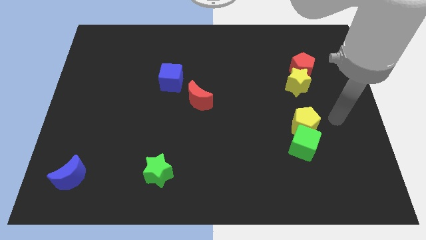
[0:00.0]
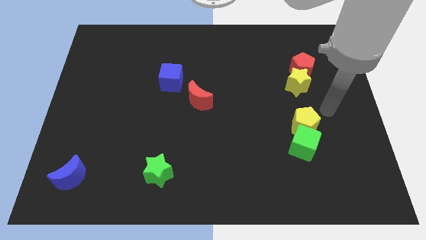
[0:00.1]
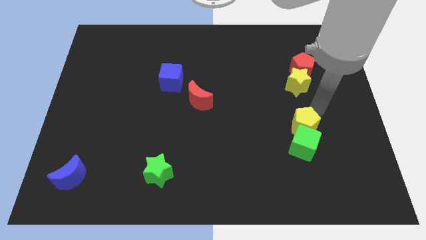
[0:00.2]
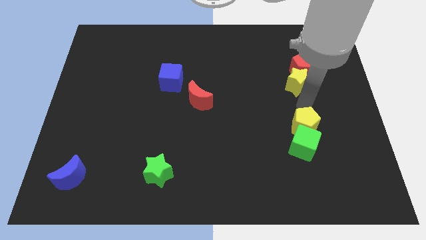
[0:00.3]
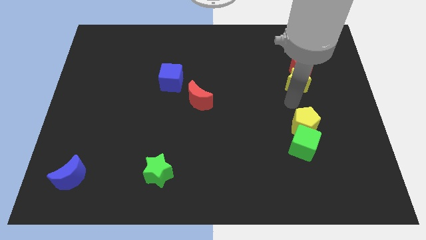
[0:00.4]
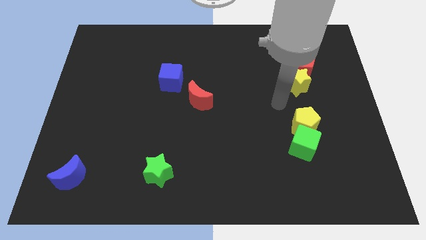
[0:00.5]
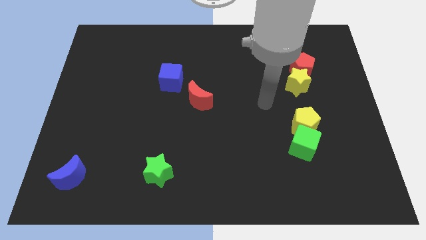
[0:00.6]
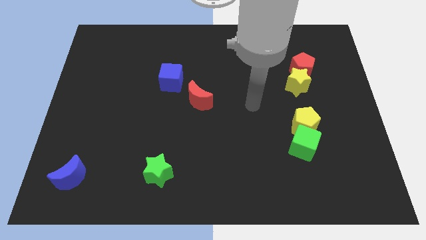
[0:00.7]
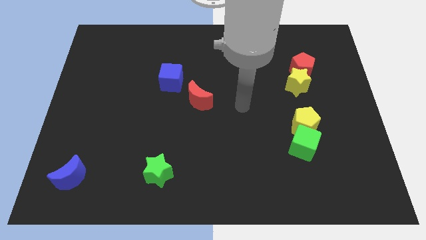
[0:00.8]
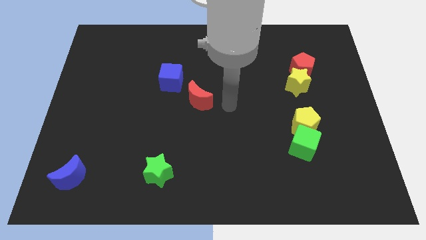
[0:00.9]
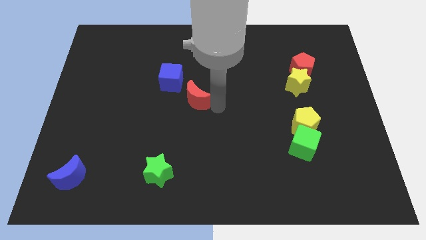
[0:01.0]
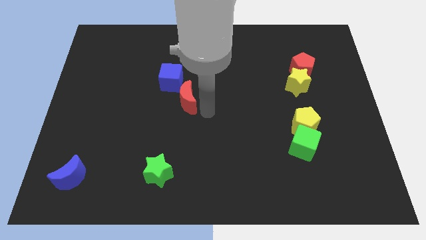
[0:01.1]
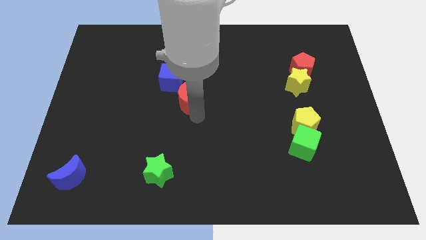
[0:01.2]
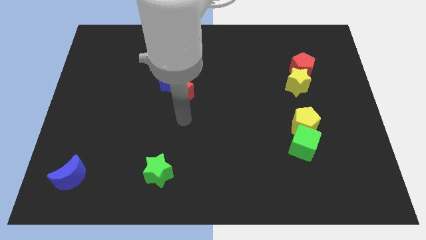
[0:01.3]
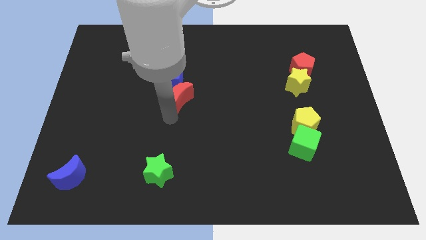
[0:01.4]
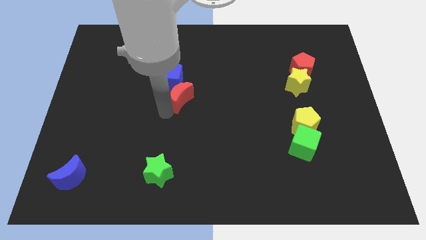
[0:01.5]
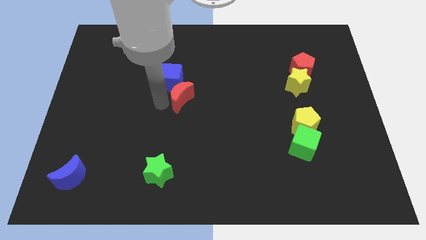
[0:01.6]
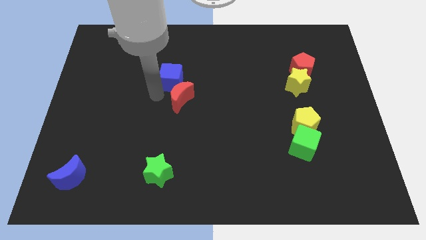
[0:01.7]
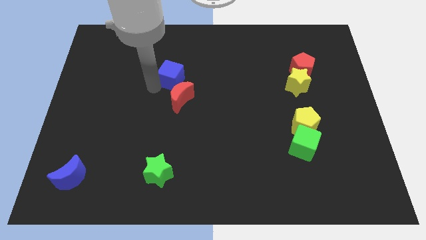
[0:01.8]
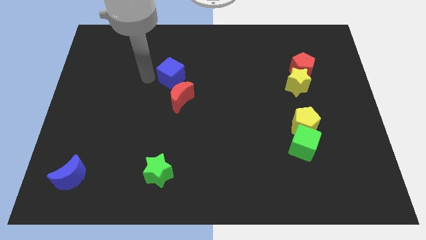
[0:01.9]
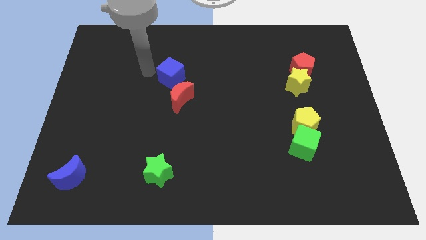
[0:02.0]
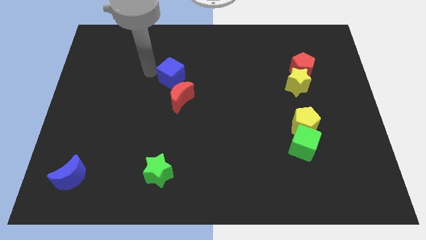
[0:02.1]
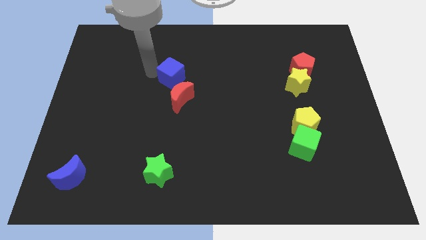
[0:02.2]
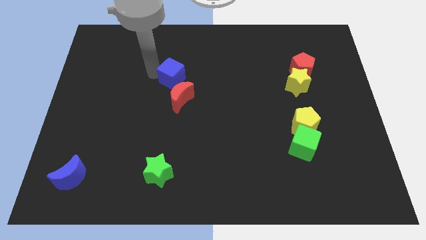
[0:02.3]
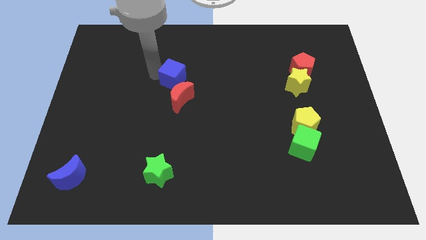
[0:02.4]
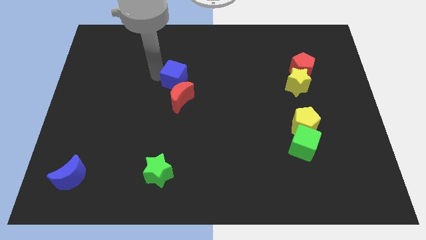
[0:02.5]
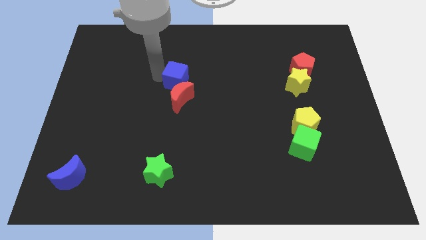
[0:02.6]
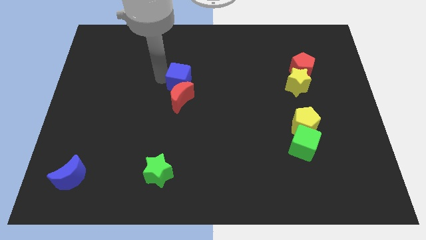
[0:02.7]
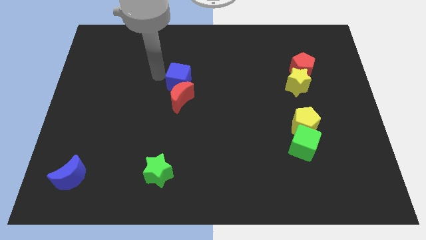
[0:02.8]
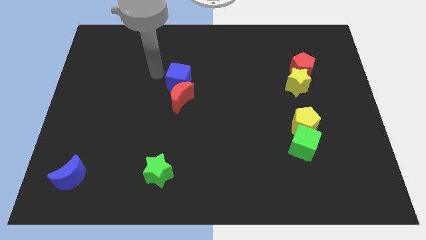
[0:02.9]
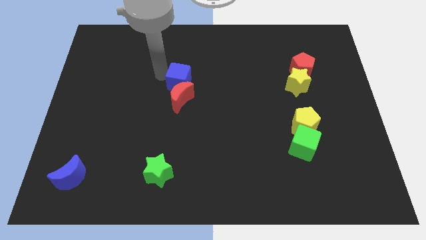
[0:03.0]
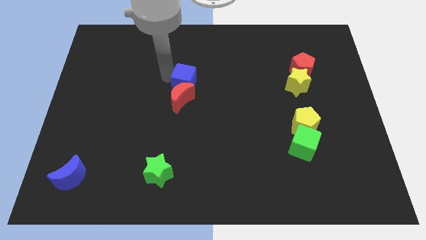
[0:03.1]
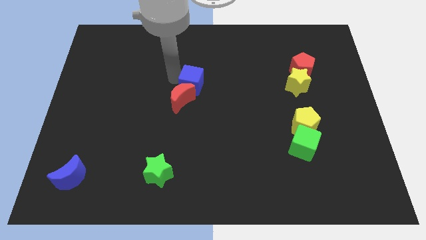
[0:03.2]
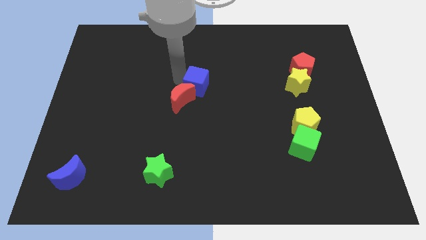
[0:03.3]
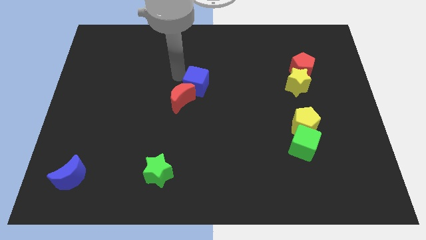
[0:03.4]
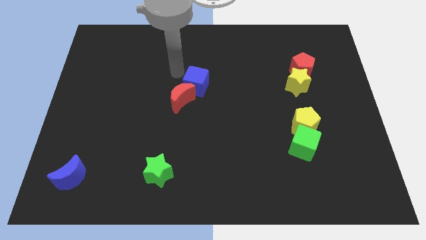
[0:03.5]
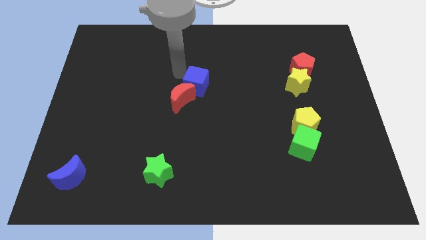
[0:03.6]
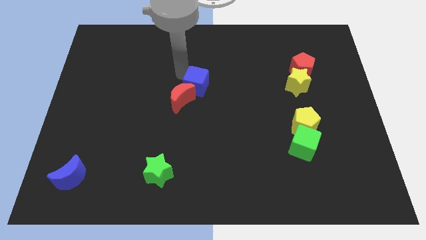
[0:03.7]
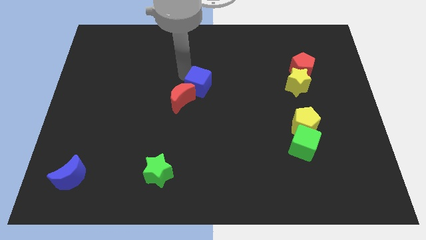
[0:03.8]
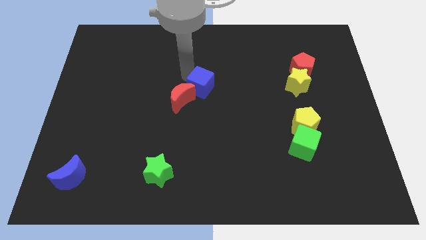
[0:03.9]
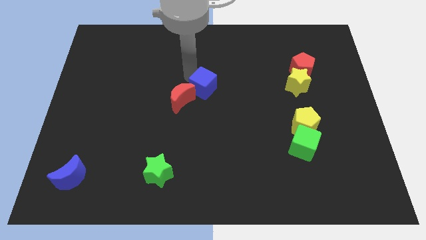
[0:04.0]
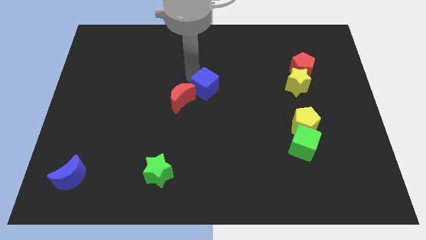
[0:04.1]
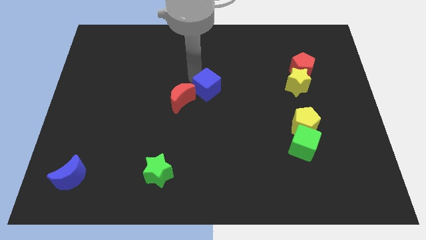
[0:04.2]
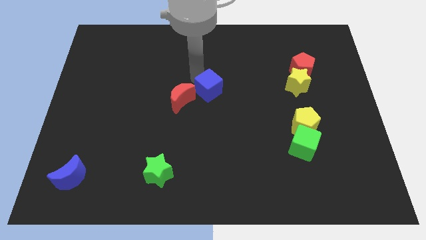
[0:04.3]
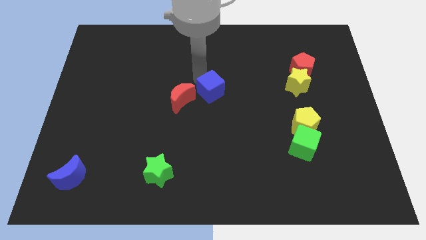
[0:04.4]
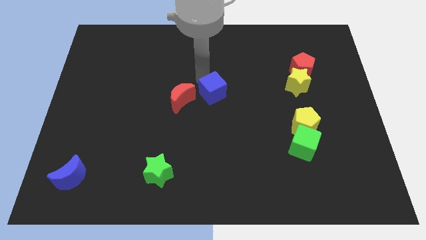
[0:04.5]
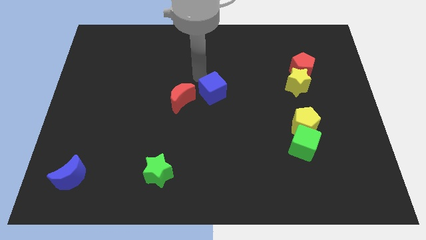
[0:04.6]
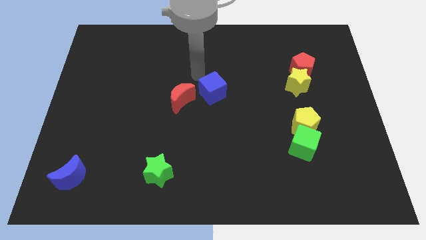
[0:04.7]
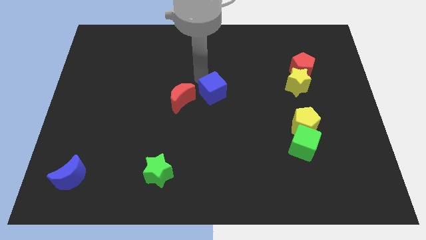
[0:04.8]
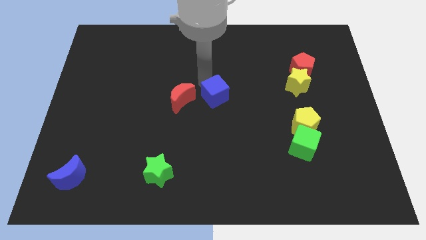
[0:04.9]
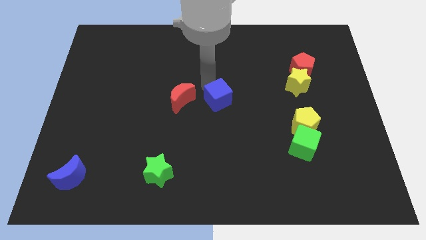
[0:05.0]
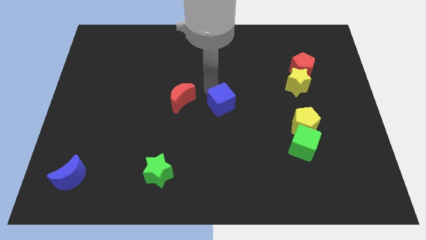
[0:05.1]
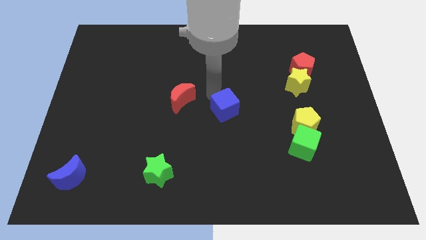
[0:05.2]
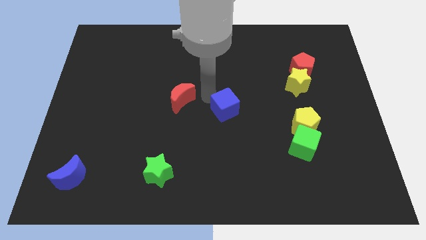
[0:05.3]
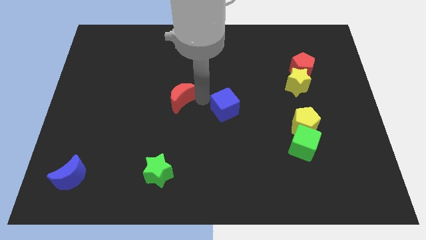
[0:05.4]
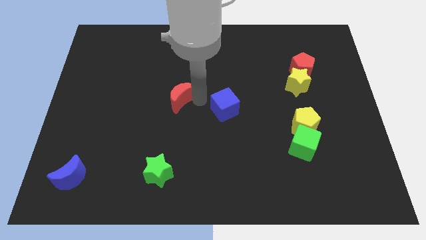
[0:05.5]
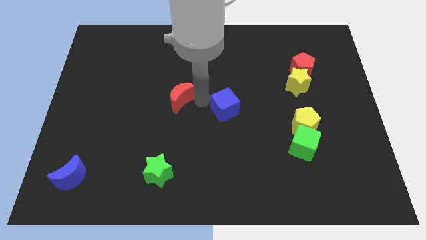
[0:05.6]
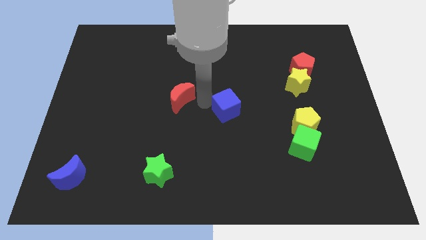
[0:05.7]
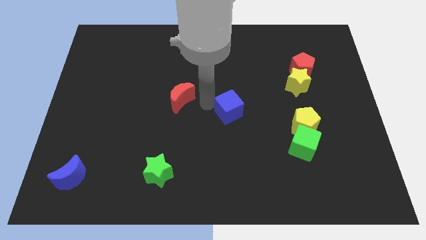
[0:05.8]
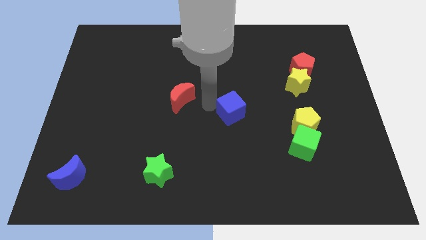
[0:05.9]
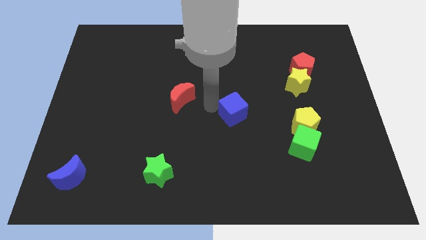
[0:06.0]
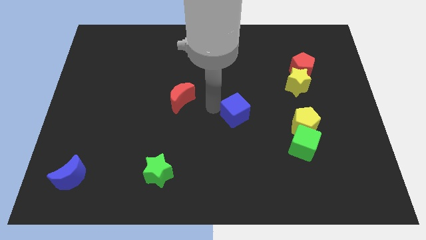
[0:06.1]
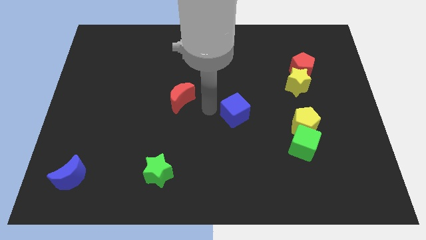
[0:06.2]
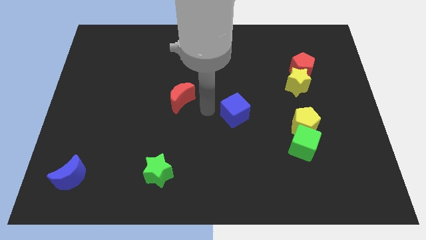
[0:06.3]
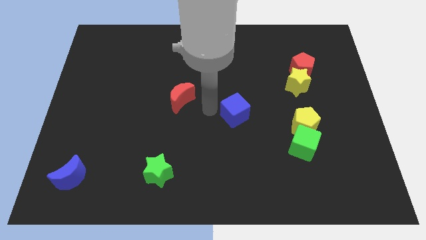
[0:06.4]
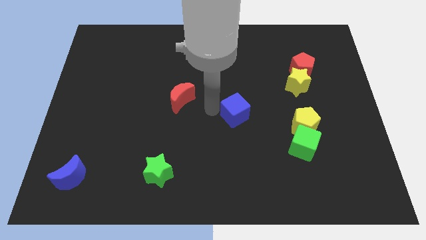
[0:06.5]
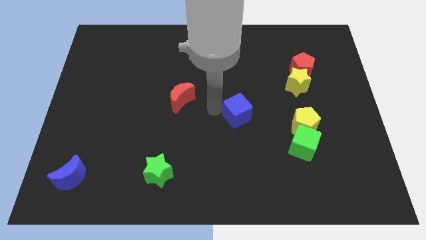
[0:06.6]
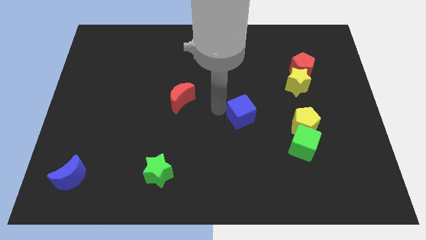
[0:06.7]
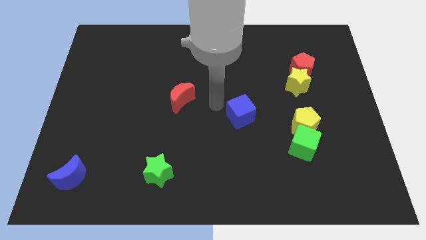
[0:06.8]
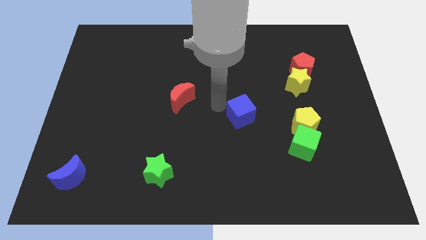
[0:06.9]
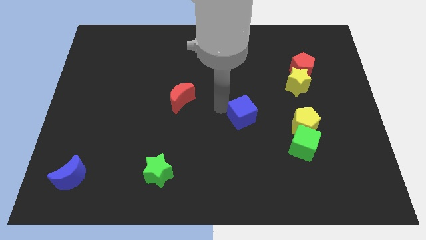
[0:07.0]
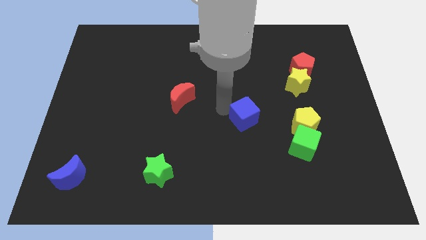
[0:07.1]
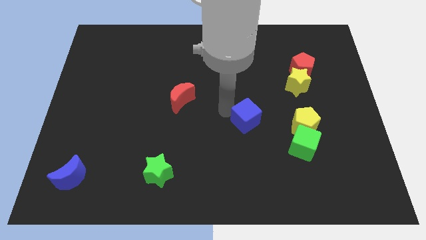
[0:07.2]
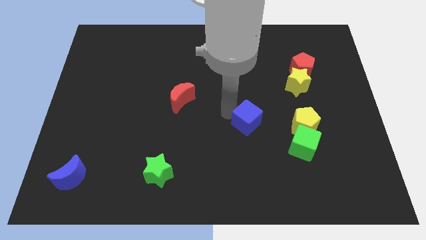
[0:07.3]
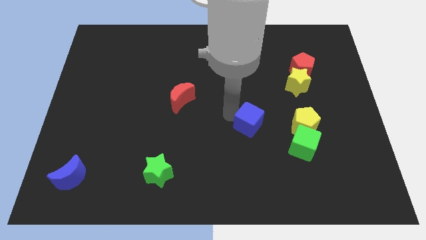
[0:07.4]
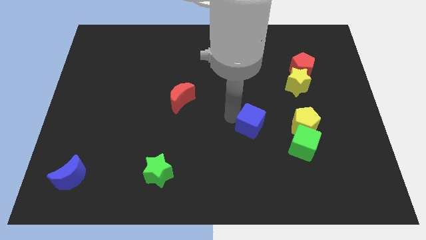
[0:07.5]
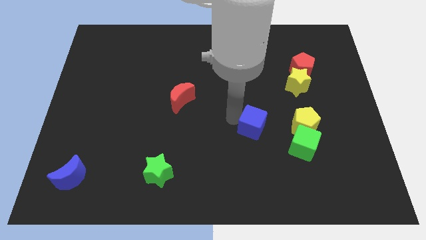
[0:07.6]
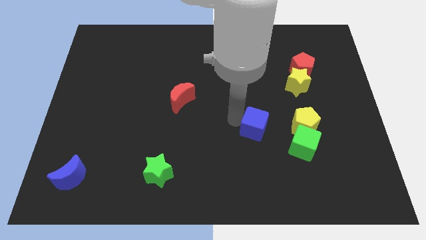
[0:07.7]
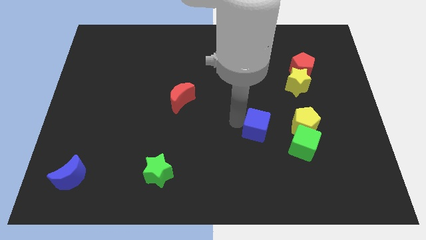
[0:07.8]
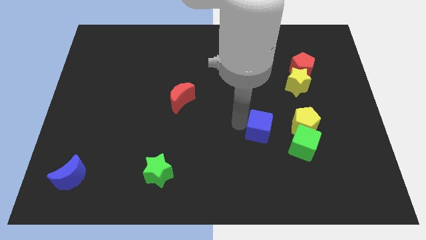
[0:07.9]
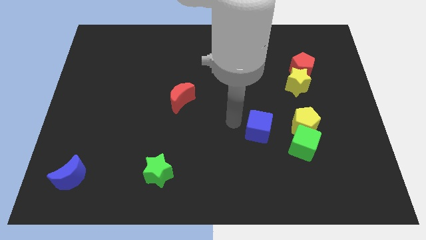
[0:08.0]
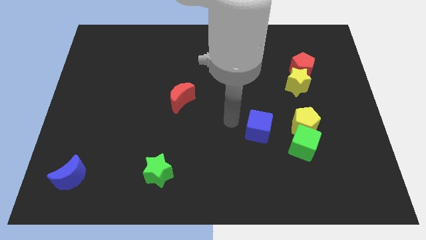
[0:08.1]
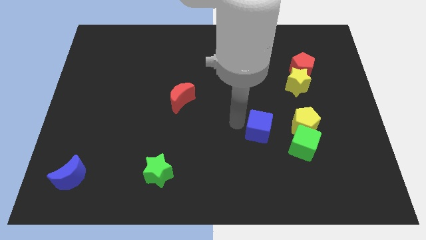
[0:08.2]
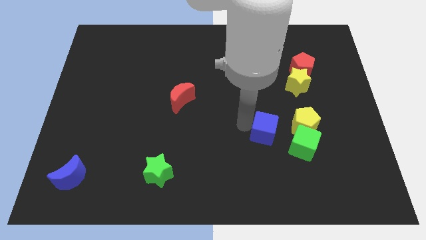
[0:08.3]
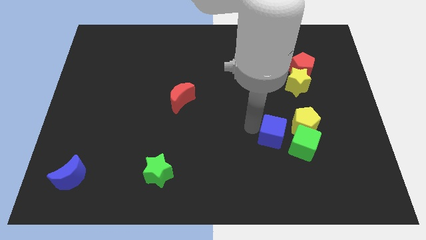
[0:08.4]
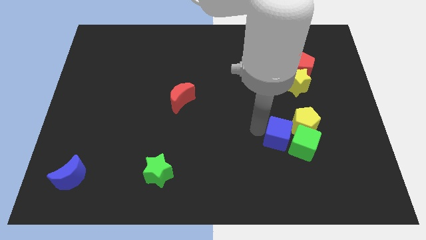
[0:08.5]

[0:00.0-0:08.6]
push the blue cube next to the green cube
